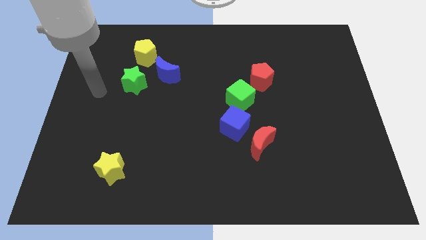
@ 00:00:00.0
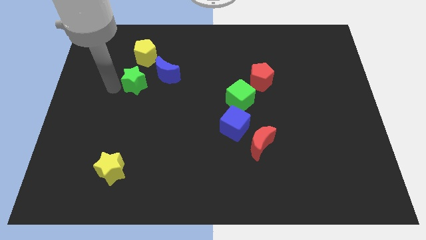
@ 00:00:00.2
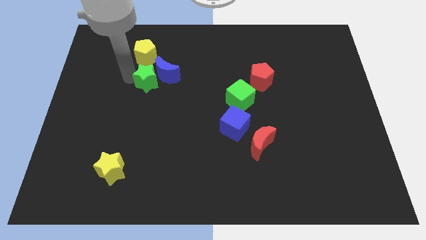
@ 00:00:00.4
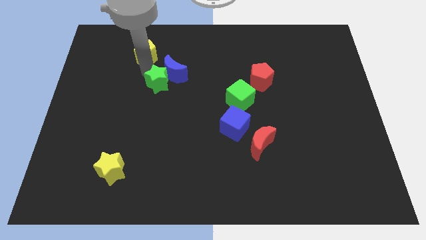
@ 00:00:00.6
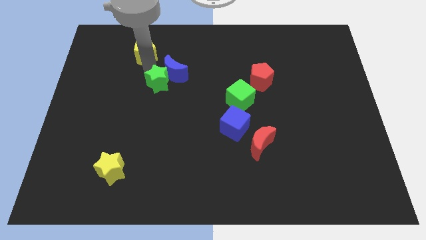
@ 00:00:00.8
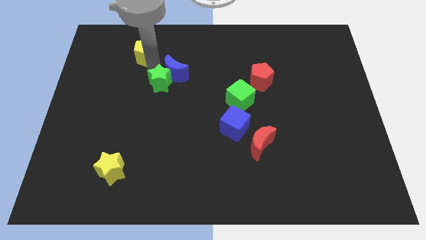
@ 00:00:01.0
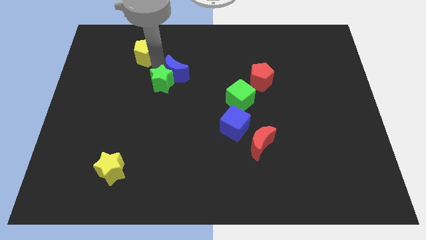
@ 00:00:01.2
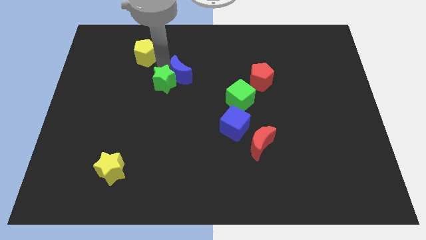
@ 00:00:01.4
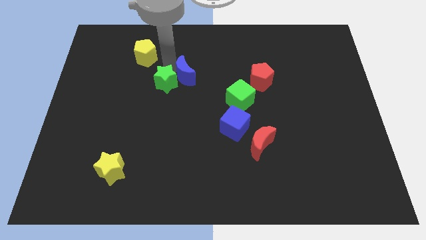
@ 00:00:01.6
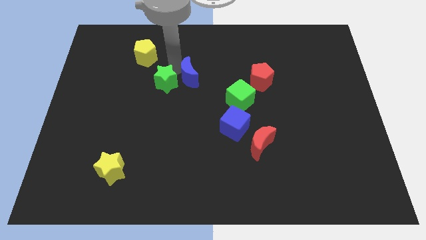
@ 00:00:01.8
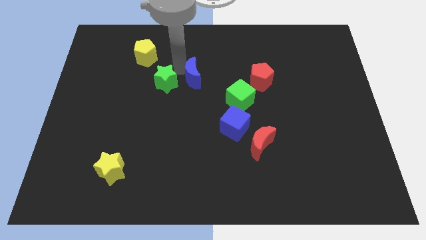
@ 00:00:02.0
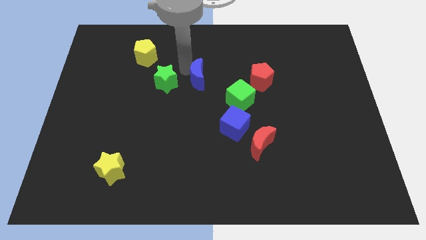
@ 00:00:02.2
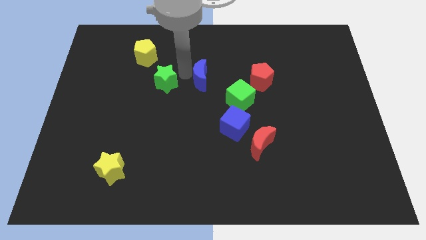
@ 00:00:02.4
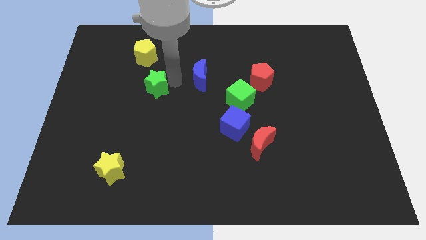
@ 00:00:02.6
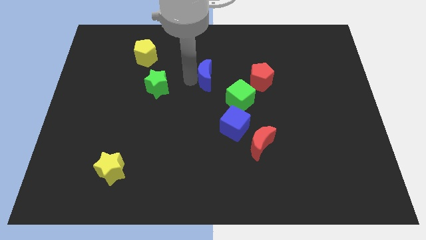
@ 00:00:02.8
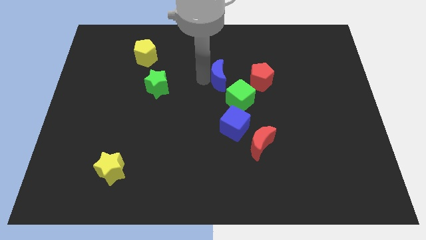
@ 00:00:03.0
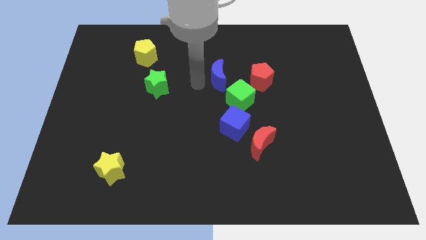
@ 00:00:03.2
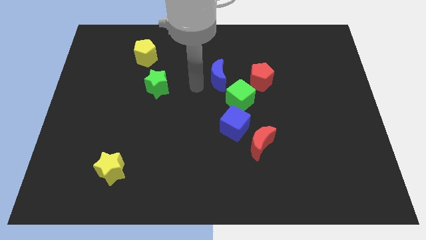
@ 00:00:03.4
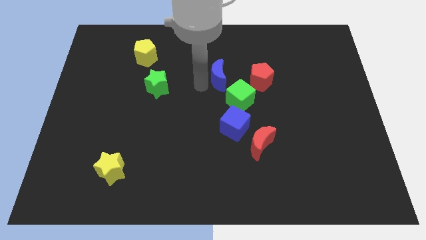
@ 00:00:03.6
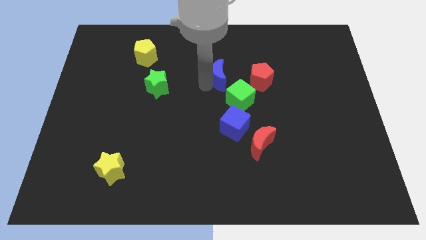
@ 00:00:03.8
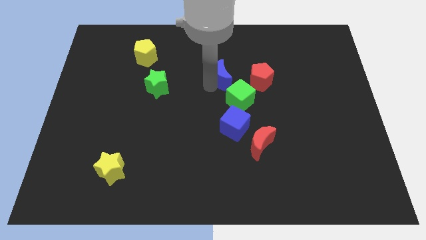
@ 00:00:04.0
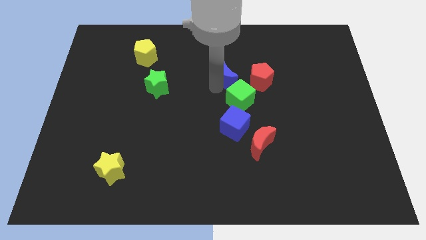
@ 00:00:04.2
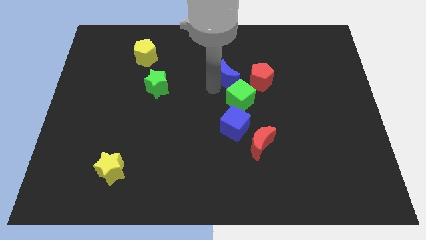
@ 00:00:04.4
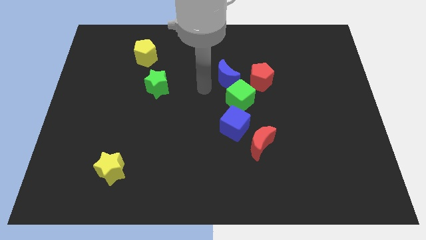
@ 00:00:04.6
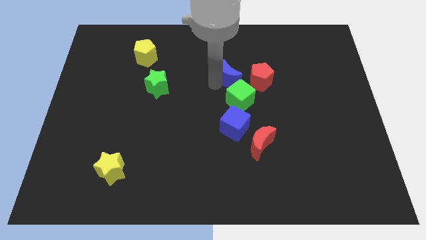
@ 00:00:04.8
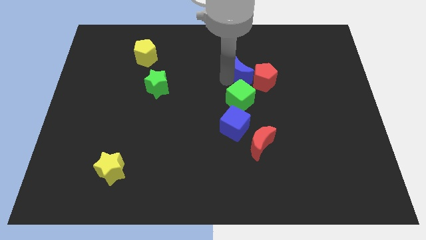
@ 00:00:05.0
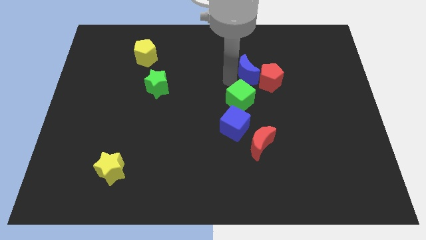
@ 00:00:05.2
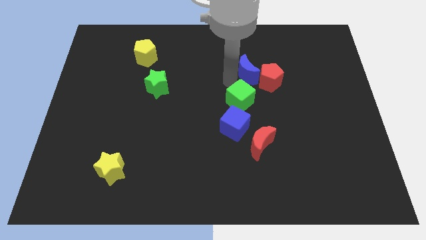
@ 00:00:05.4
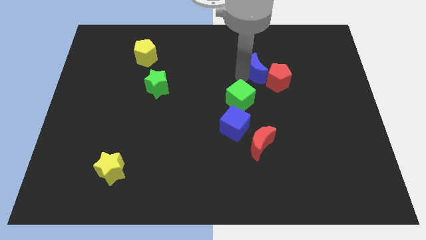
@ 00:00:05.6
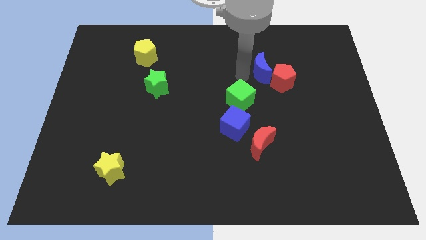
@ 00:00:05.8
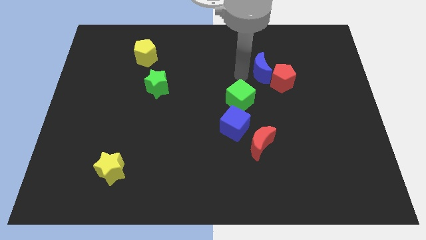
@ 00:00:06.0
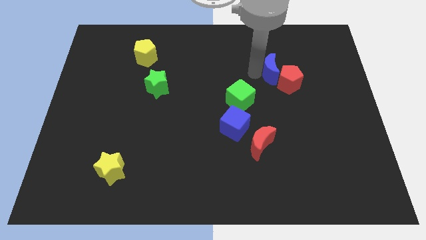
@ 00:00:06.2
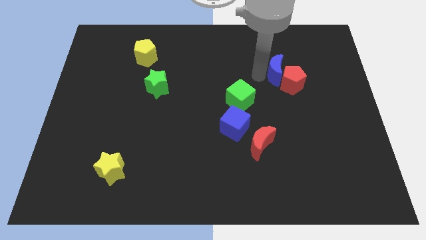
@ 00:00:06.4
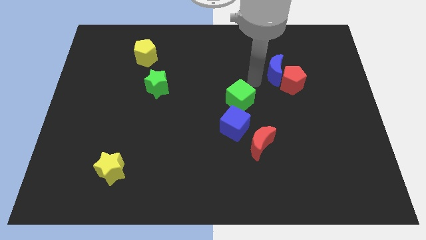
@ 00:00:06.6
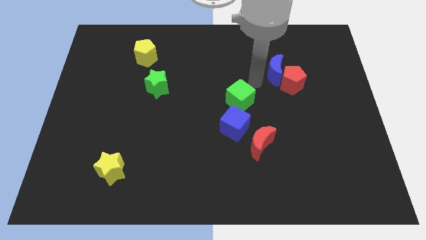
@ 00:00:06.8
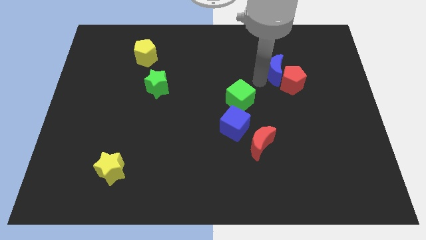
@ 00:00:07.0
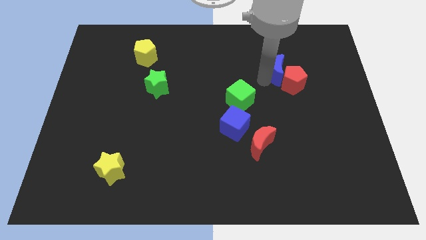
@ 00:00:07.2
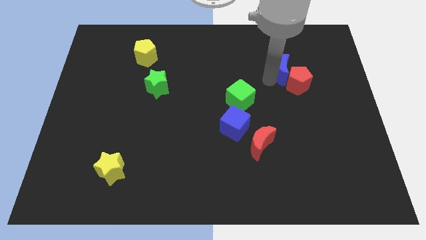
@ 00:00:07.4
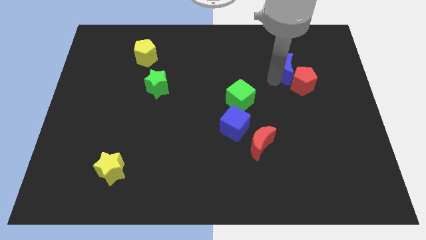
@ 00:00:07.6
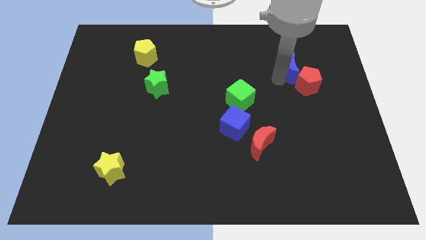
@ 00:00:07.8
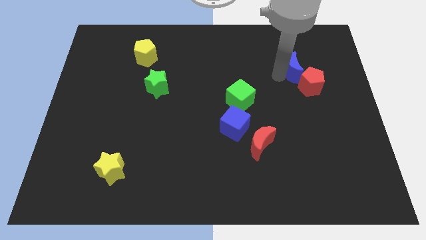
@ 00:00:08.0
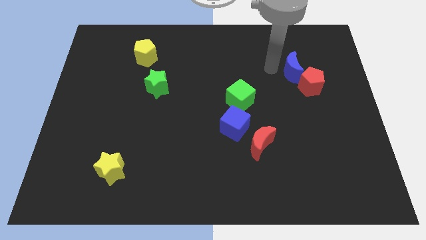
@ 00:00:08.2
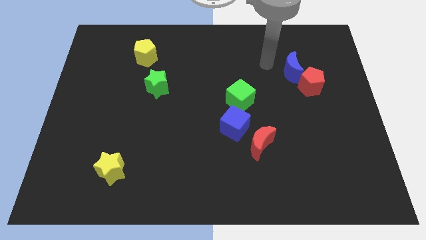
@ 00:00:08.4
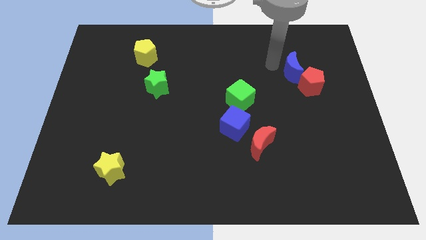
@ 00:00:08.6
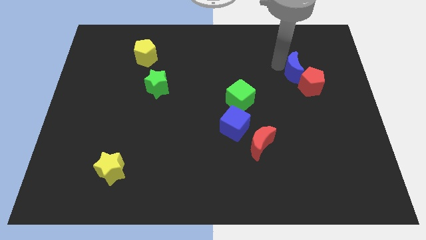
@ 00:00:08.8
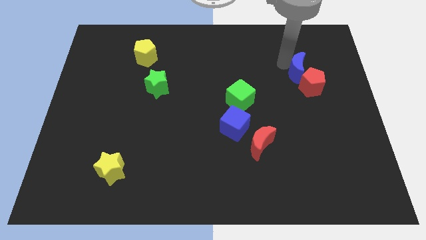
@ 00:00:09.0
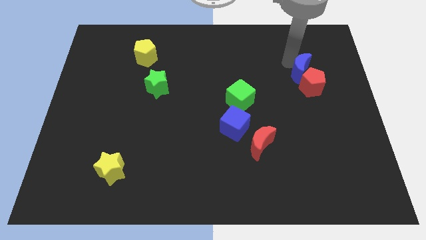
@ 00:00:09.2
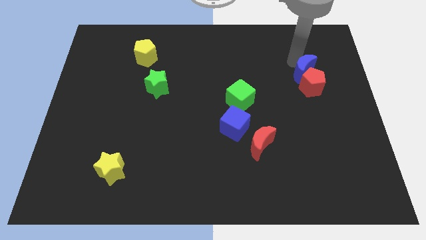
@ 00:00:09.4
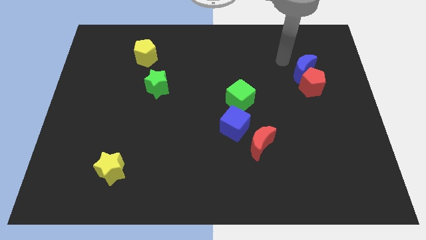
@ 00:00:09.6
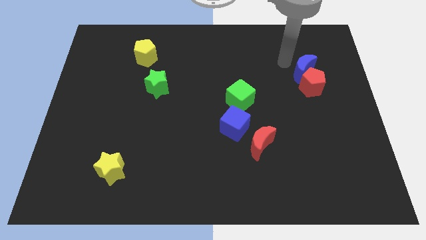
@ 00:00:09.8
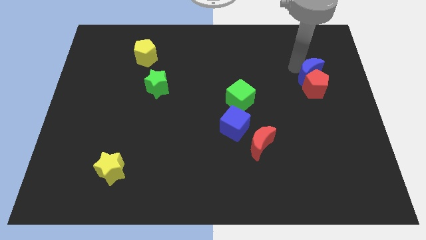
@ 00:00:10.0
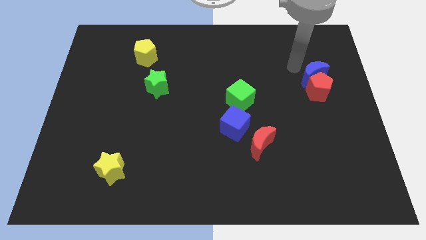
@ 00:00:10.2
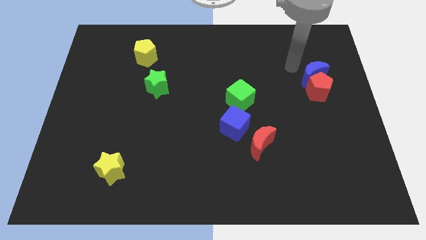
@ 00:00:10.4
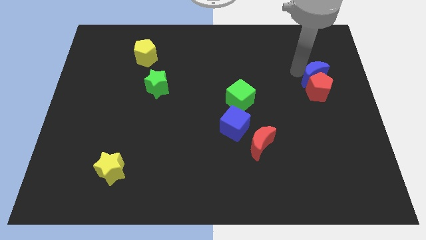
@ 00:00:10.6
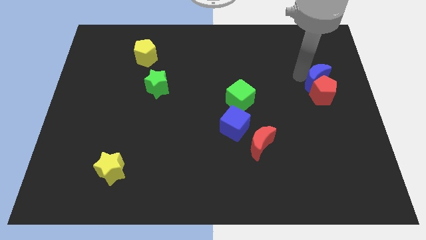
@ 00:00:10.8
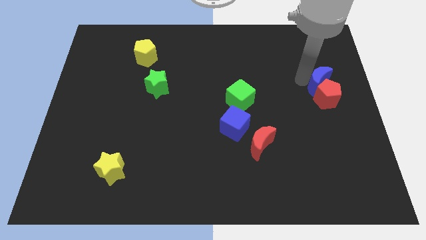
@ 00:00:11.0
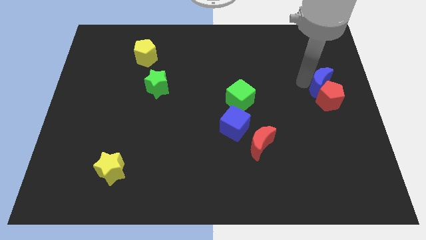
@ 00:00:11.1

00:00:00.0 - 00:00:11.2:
move the blue moon to the right side of the board

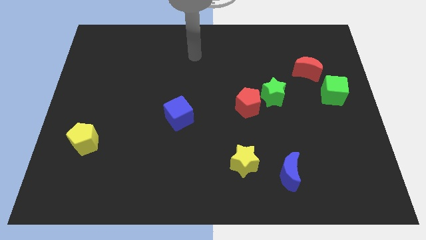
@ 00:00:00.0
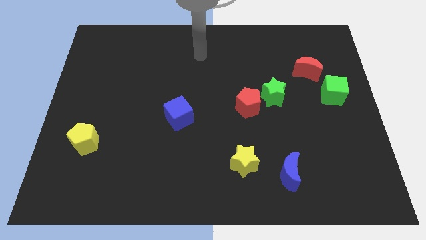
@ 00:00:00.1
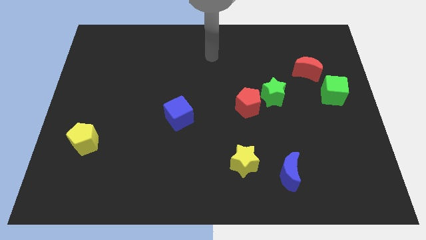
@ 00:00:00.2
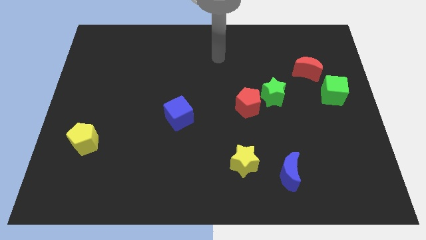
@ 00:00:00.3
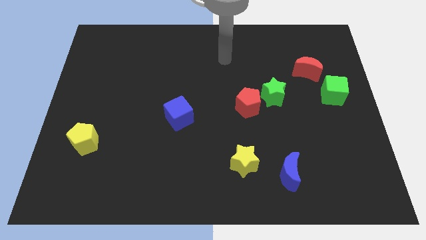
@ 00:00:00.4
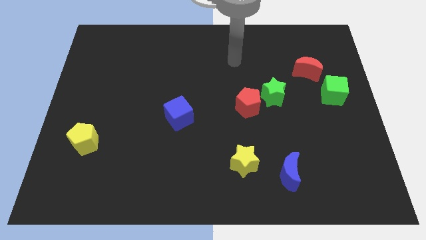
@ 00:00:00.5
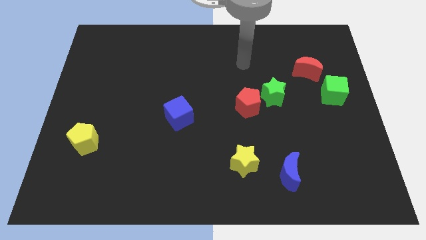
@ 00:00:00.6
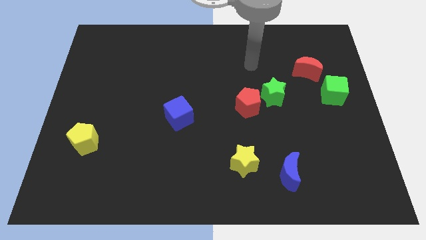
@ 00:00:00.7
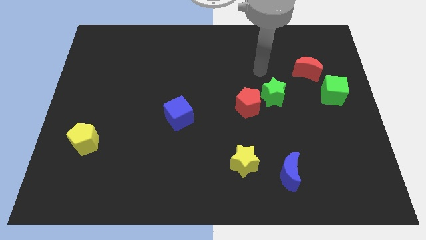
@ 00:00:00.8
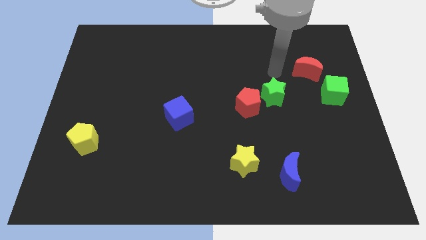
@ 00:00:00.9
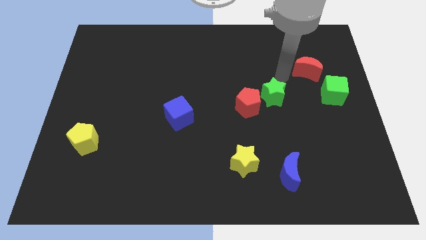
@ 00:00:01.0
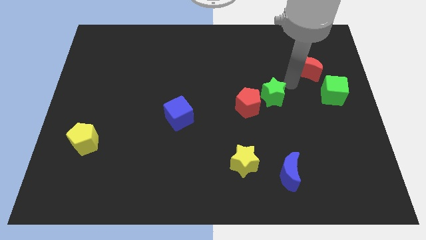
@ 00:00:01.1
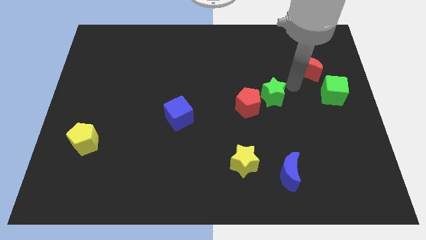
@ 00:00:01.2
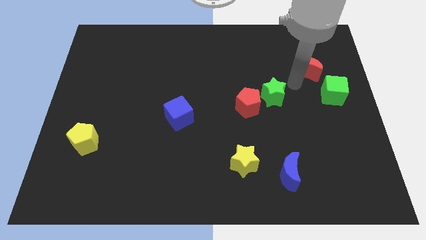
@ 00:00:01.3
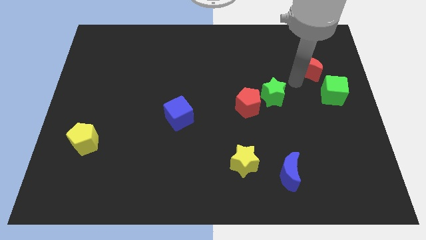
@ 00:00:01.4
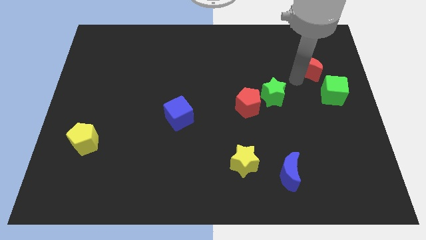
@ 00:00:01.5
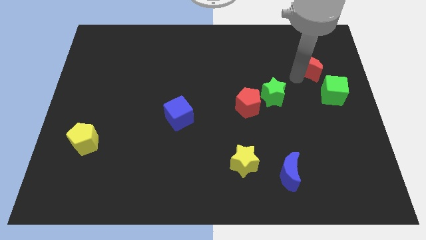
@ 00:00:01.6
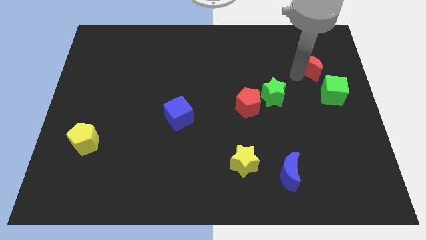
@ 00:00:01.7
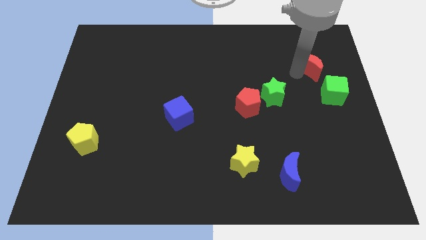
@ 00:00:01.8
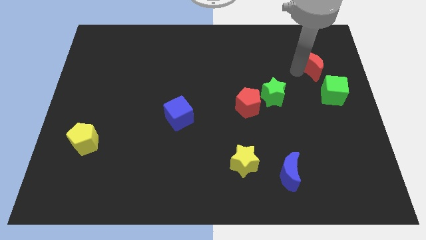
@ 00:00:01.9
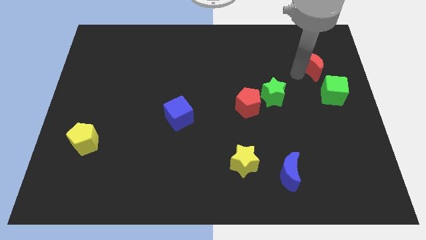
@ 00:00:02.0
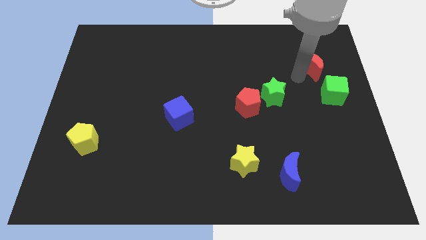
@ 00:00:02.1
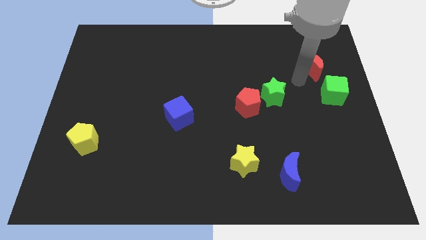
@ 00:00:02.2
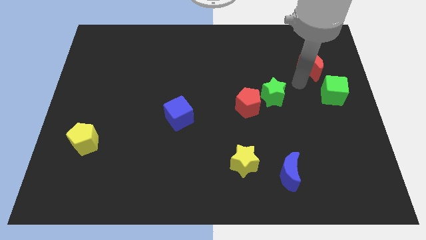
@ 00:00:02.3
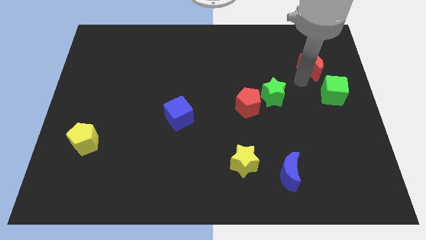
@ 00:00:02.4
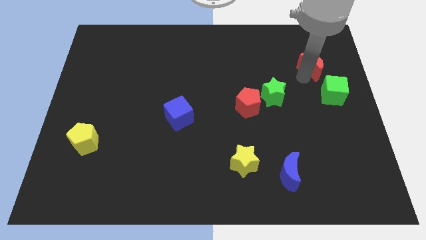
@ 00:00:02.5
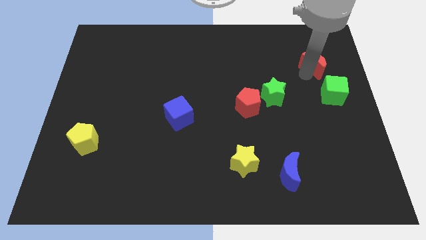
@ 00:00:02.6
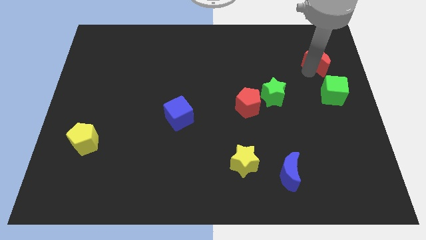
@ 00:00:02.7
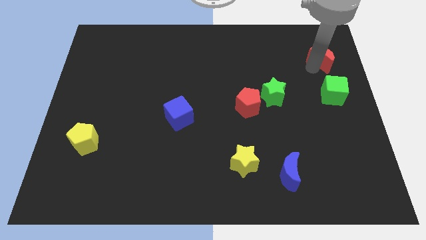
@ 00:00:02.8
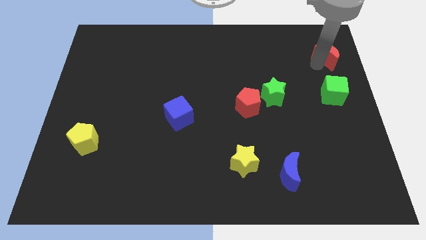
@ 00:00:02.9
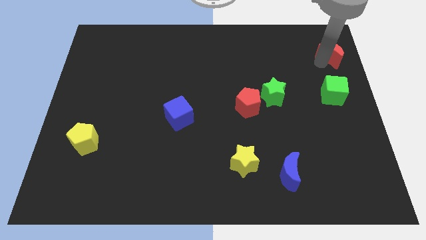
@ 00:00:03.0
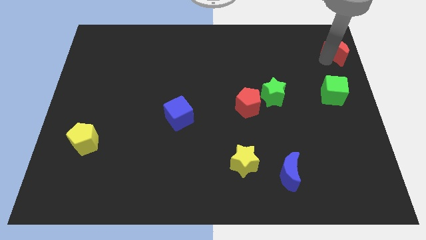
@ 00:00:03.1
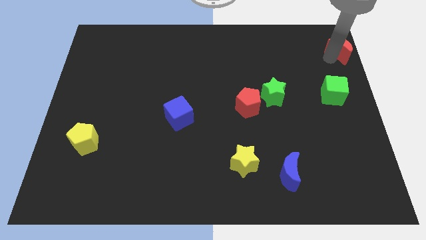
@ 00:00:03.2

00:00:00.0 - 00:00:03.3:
push the red moon to the upper right corner
